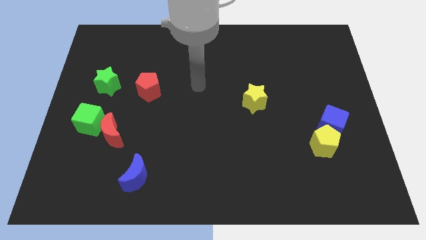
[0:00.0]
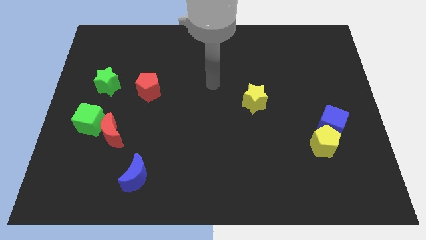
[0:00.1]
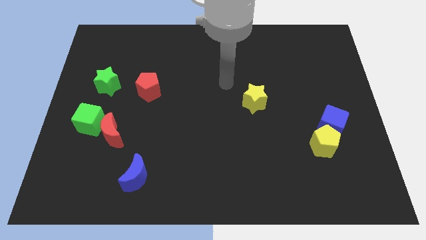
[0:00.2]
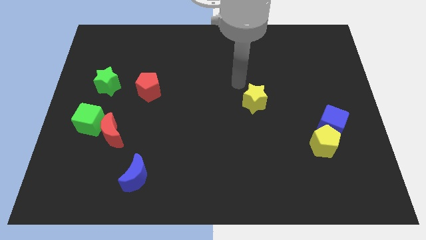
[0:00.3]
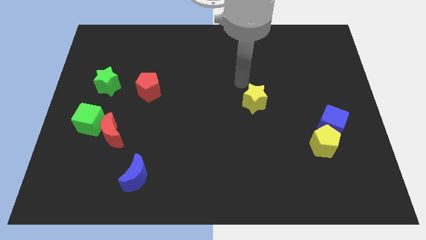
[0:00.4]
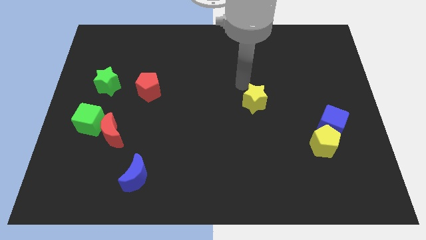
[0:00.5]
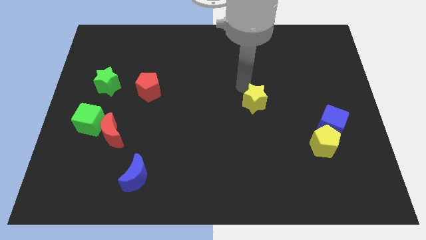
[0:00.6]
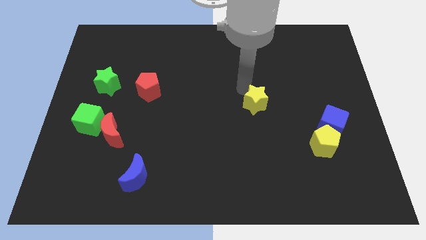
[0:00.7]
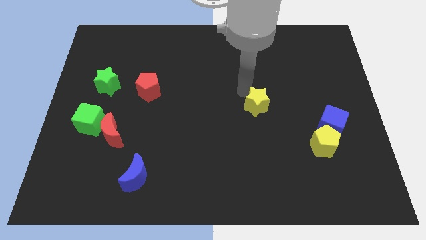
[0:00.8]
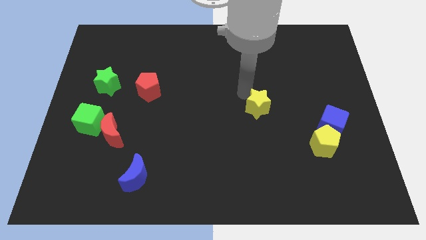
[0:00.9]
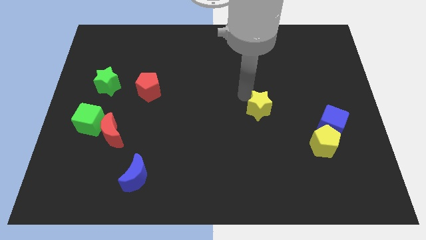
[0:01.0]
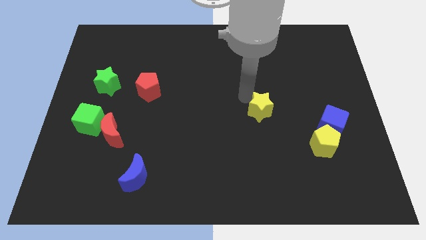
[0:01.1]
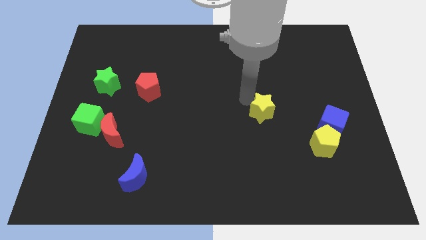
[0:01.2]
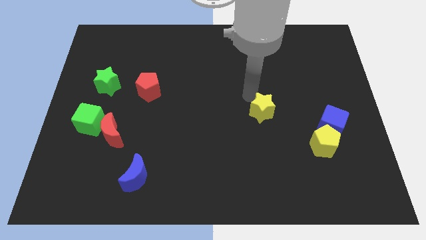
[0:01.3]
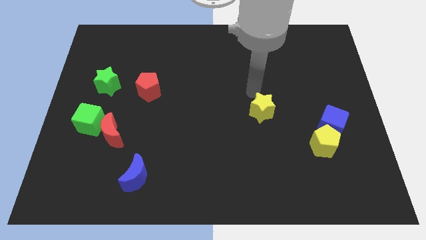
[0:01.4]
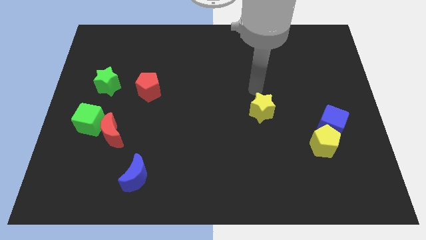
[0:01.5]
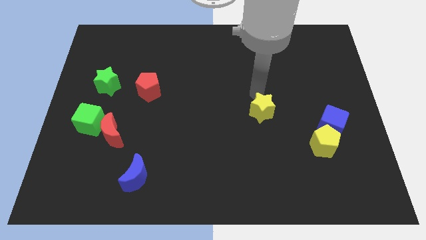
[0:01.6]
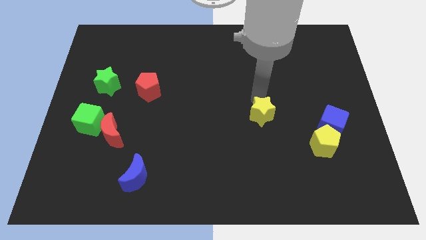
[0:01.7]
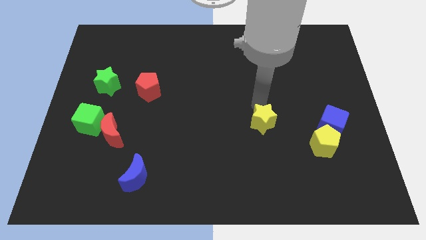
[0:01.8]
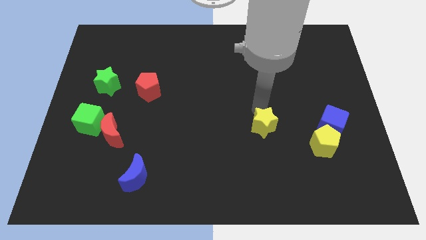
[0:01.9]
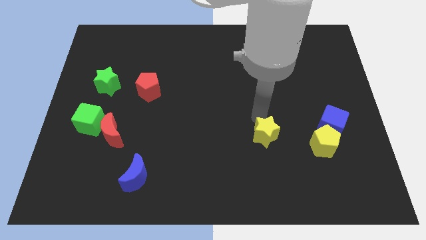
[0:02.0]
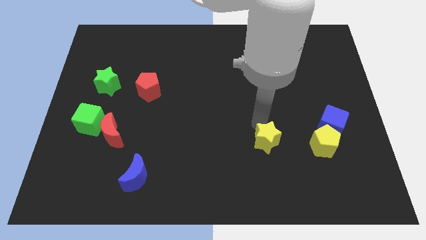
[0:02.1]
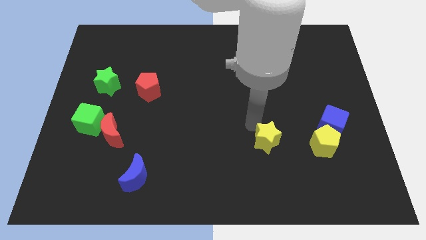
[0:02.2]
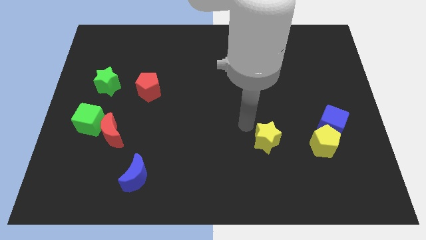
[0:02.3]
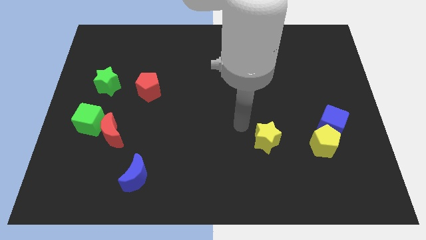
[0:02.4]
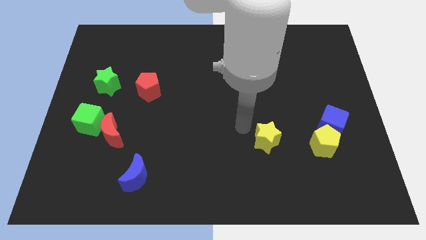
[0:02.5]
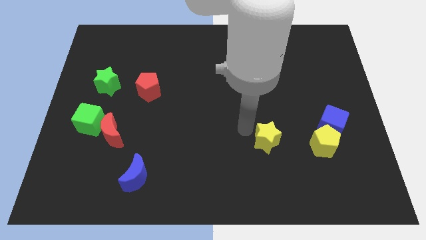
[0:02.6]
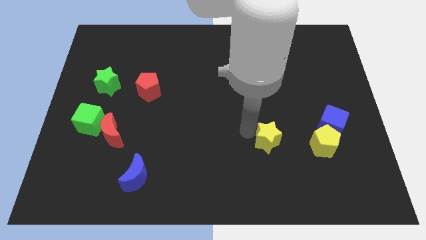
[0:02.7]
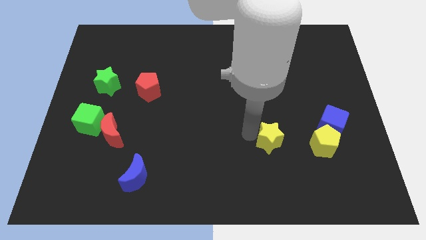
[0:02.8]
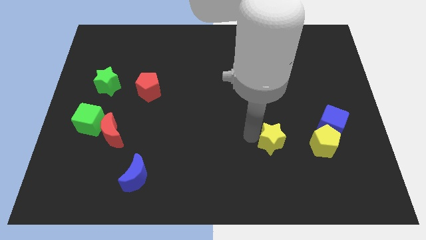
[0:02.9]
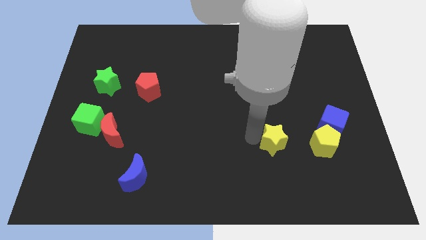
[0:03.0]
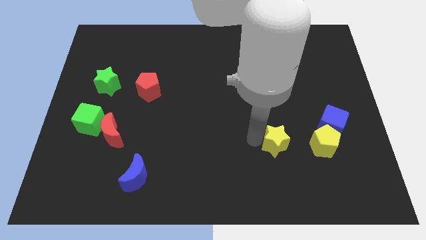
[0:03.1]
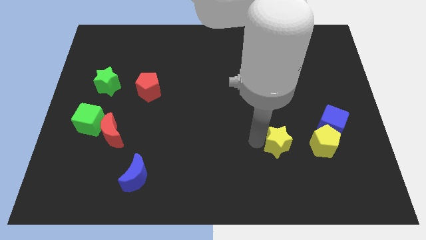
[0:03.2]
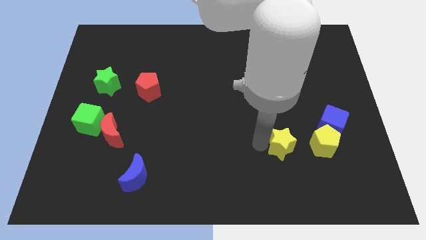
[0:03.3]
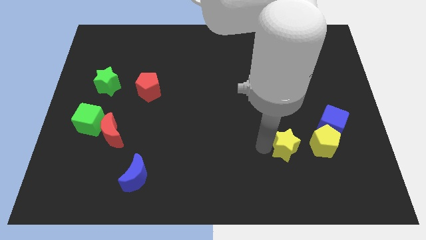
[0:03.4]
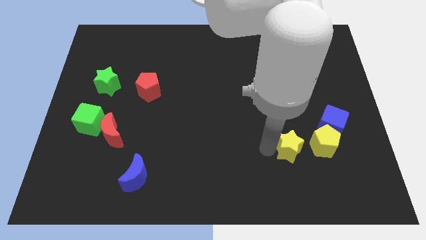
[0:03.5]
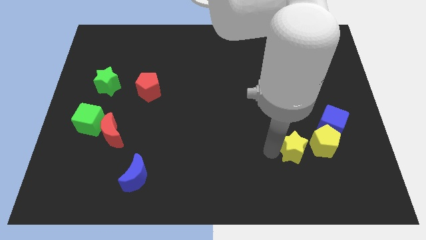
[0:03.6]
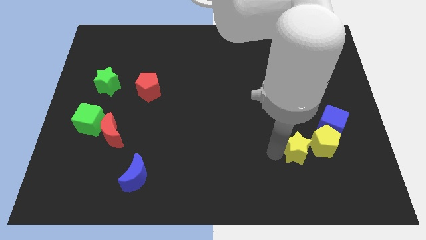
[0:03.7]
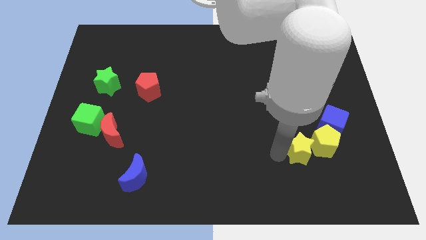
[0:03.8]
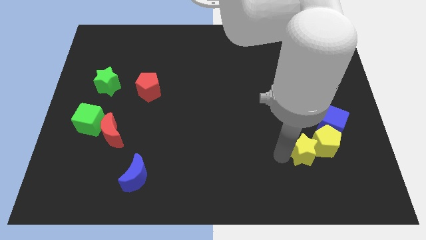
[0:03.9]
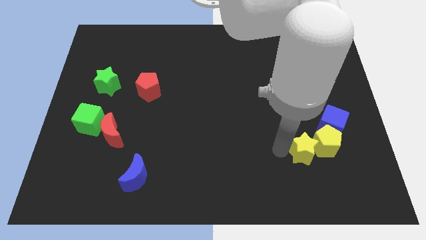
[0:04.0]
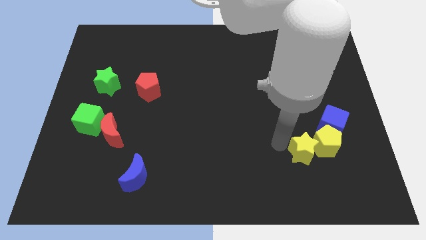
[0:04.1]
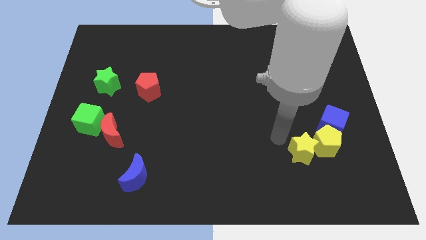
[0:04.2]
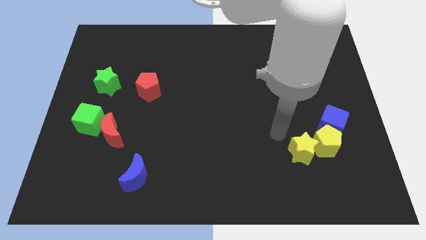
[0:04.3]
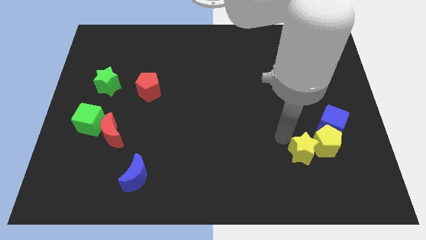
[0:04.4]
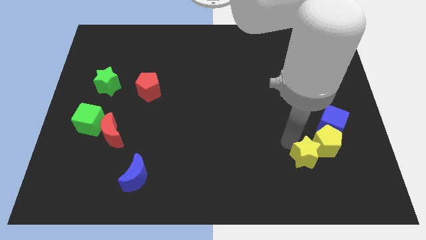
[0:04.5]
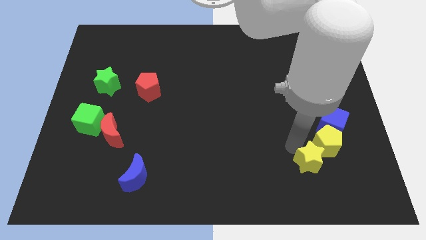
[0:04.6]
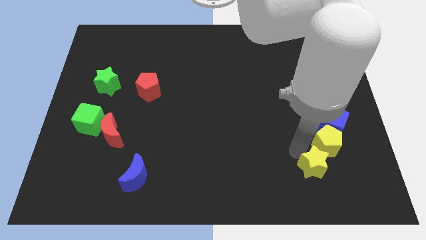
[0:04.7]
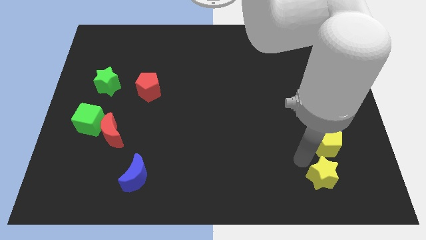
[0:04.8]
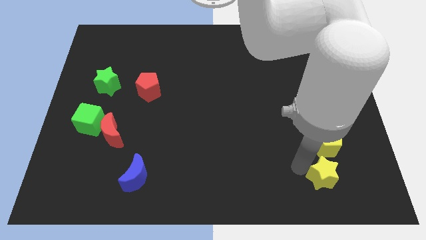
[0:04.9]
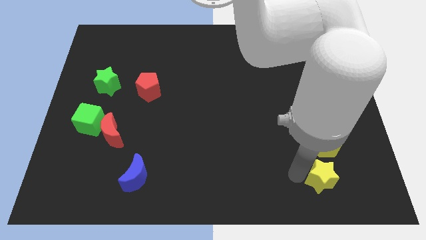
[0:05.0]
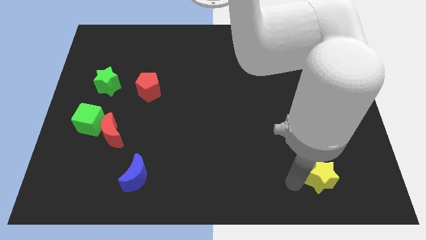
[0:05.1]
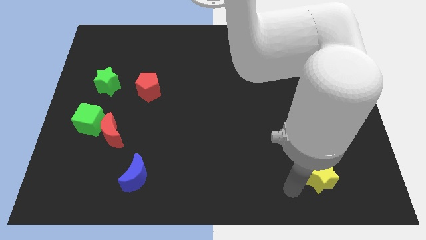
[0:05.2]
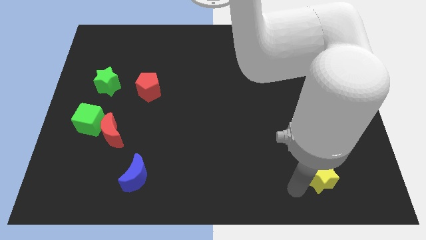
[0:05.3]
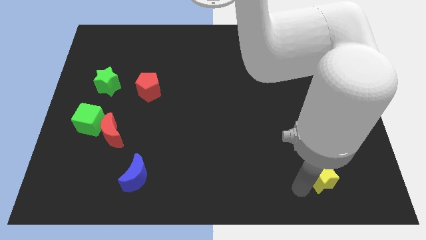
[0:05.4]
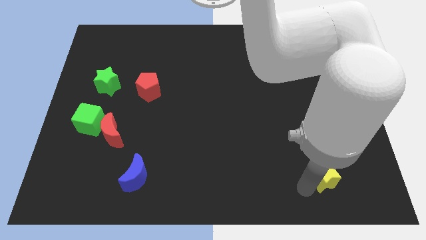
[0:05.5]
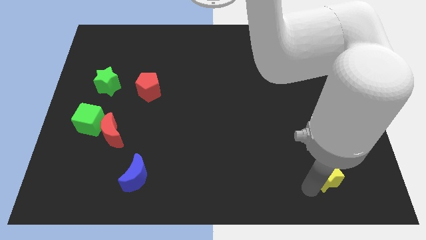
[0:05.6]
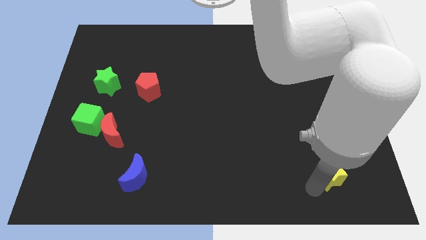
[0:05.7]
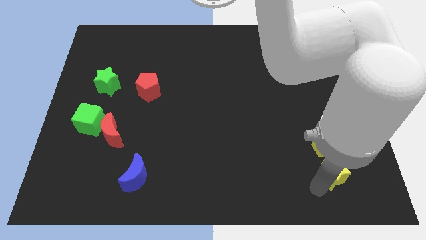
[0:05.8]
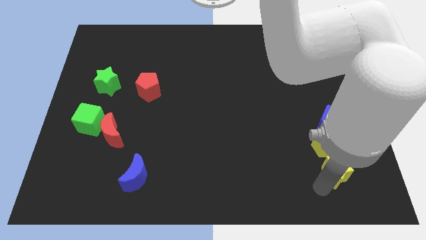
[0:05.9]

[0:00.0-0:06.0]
put the yellow star to the bottom right of the yellow pentagon

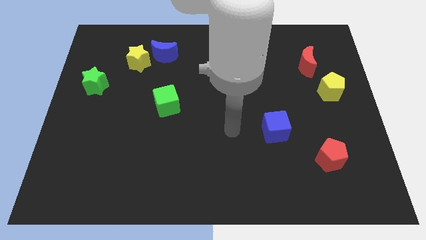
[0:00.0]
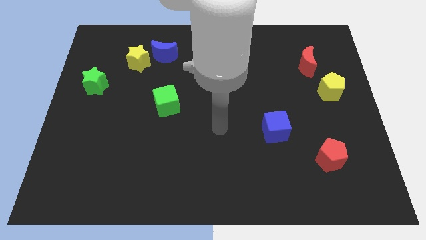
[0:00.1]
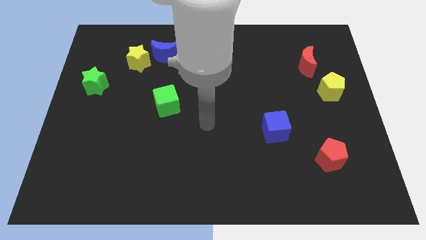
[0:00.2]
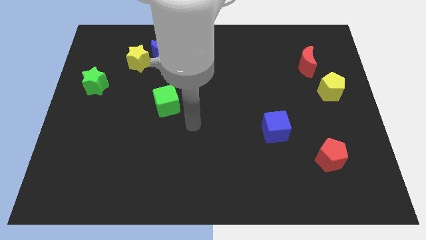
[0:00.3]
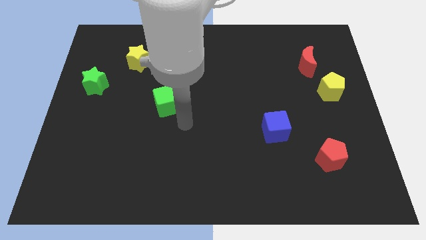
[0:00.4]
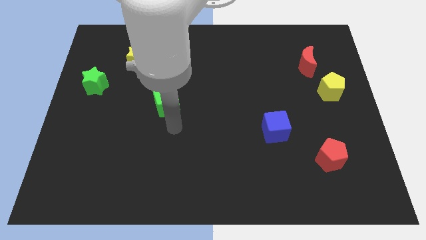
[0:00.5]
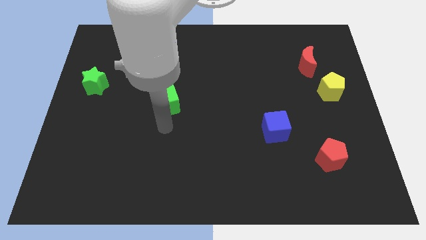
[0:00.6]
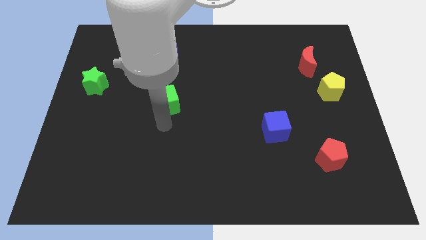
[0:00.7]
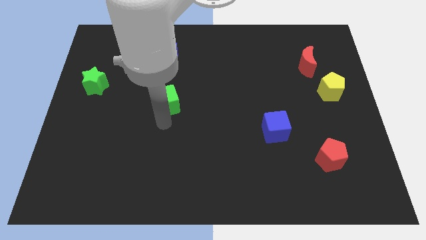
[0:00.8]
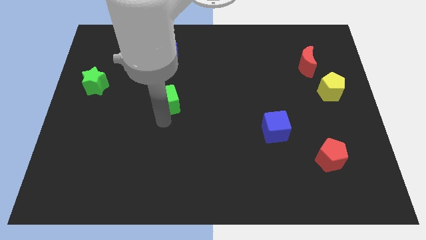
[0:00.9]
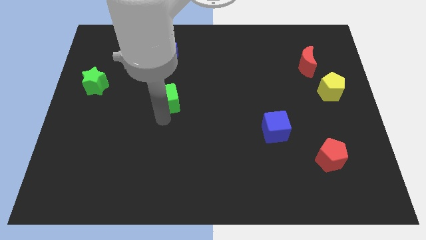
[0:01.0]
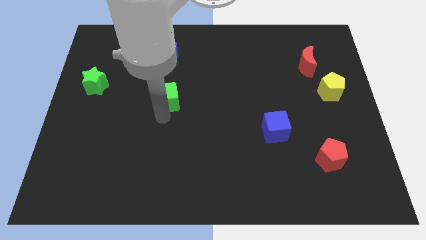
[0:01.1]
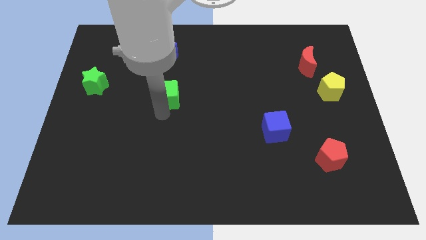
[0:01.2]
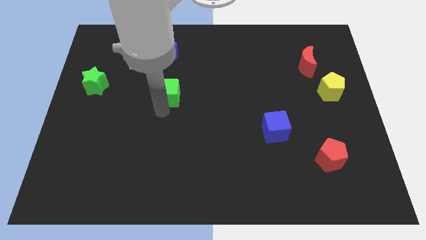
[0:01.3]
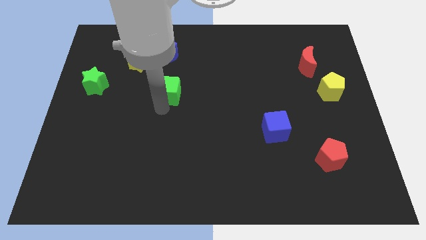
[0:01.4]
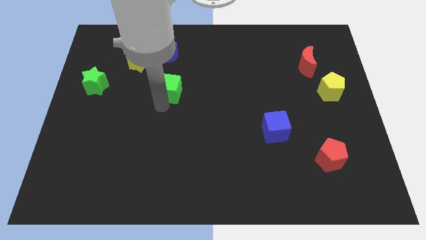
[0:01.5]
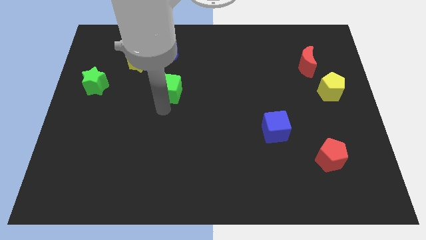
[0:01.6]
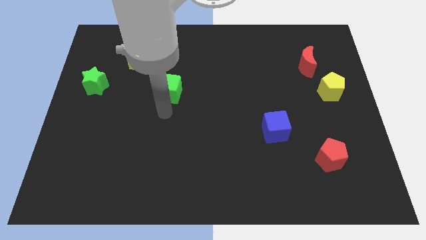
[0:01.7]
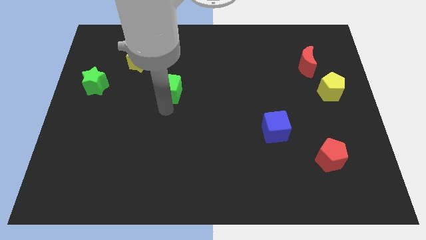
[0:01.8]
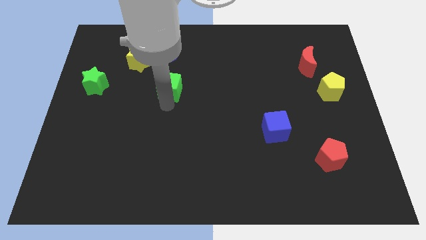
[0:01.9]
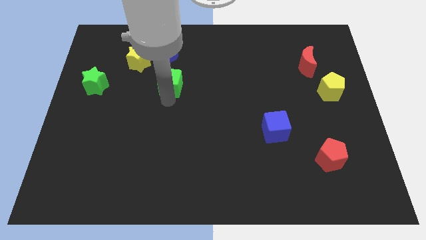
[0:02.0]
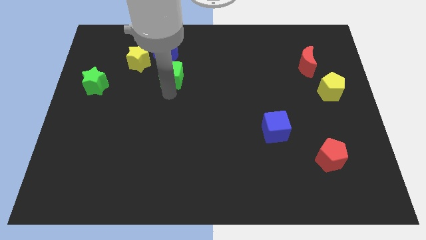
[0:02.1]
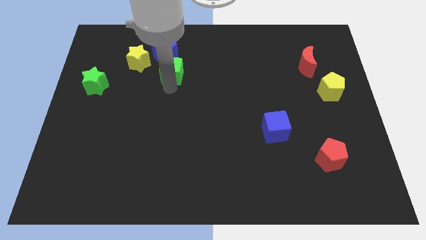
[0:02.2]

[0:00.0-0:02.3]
push the green cube just right of the yellow star
